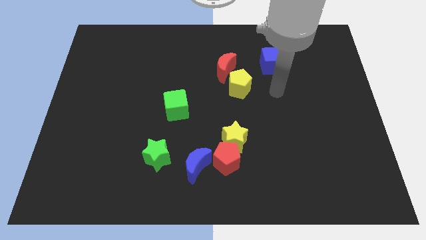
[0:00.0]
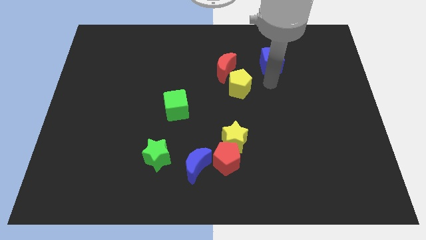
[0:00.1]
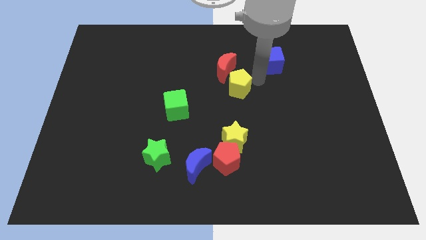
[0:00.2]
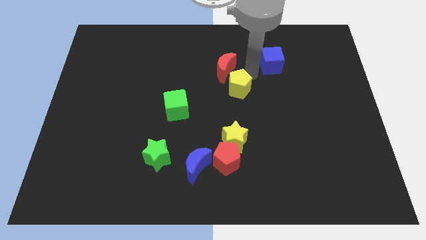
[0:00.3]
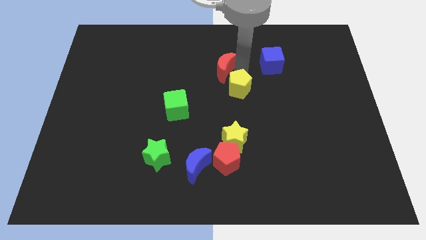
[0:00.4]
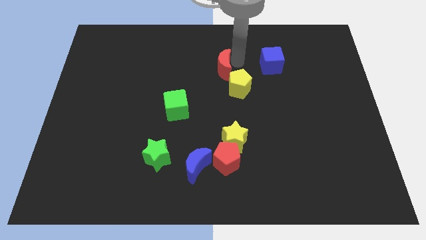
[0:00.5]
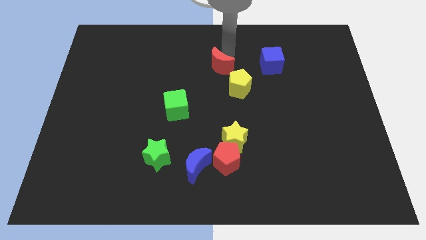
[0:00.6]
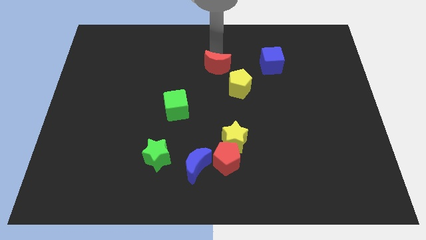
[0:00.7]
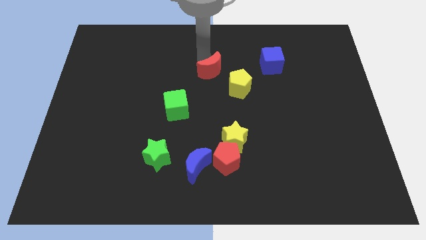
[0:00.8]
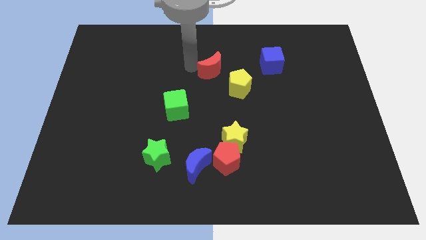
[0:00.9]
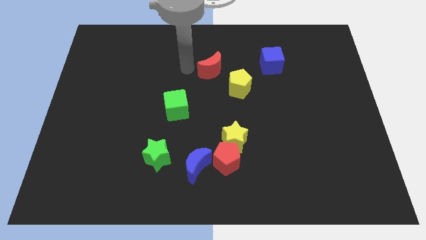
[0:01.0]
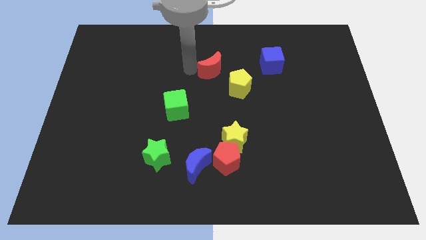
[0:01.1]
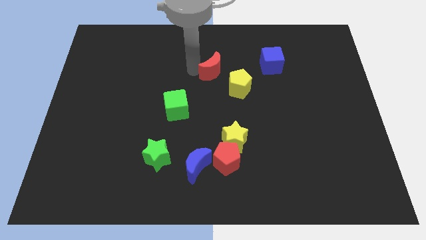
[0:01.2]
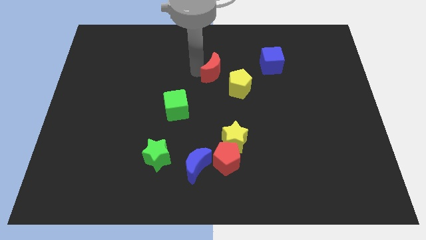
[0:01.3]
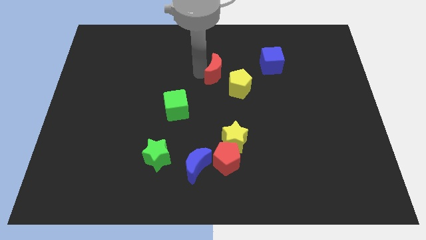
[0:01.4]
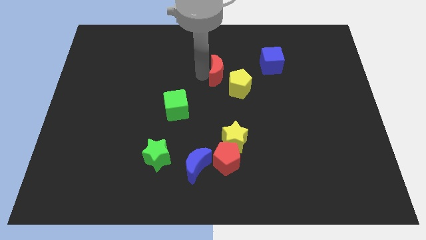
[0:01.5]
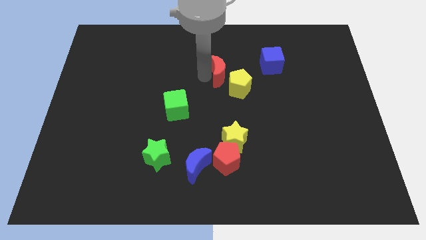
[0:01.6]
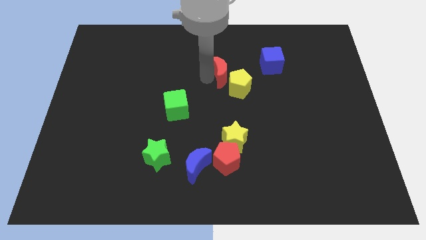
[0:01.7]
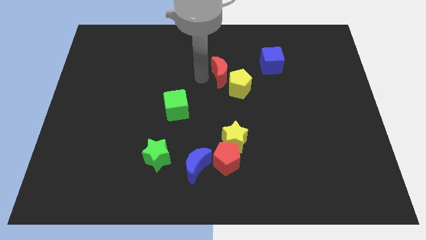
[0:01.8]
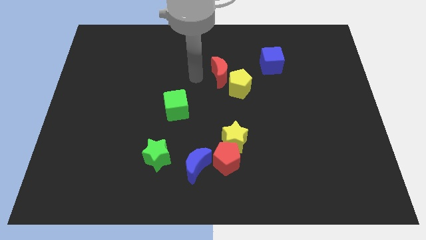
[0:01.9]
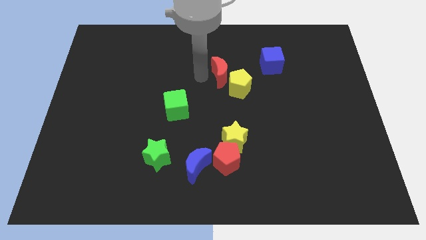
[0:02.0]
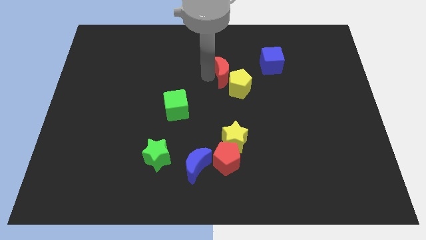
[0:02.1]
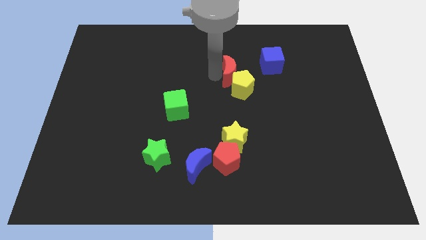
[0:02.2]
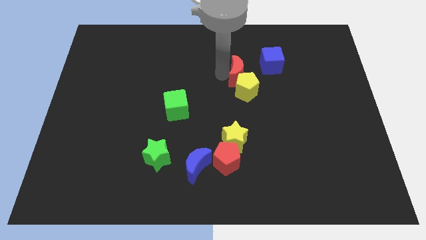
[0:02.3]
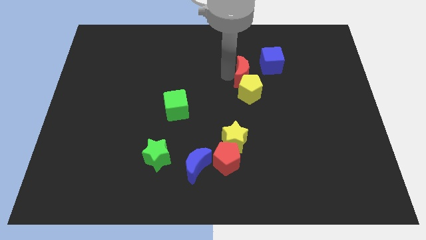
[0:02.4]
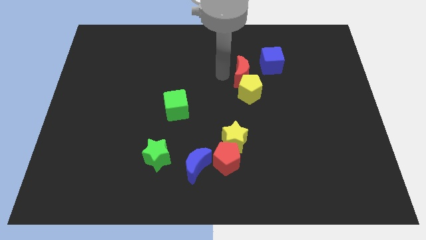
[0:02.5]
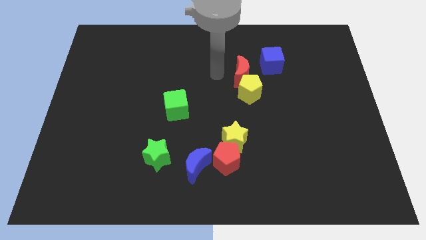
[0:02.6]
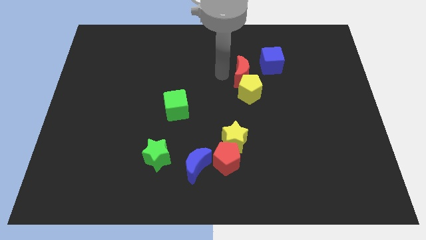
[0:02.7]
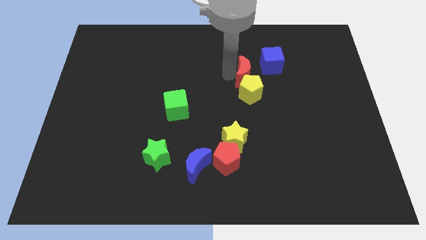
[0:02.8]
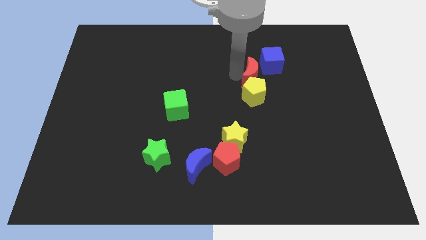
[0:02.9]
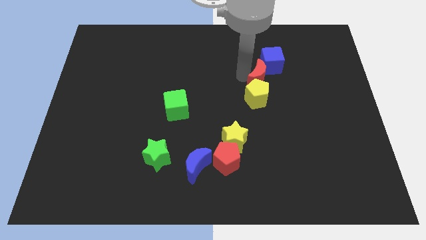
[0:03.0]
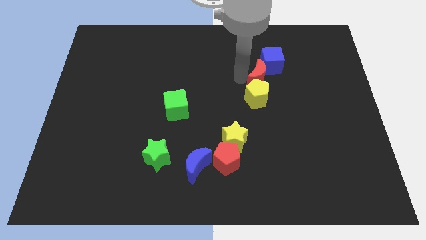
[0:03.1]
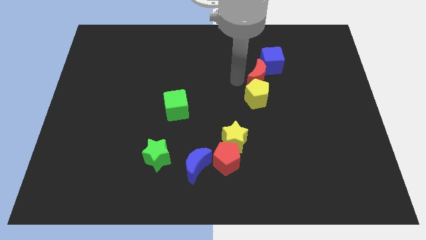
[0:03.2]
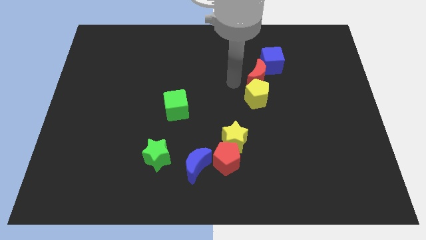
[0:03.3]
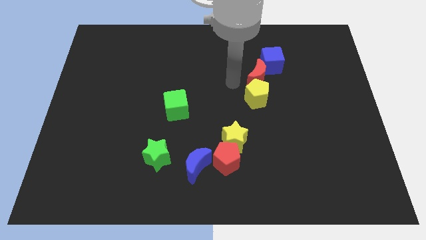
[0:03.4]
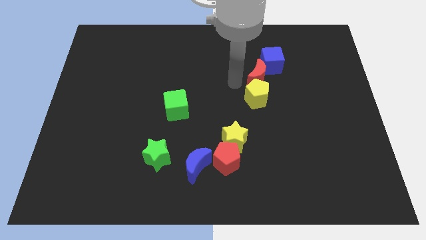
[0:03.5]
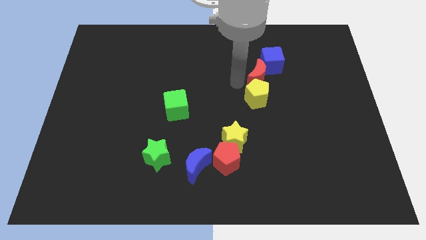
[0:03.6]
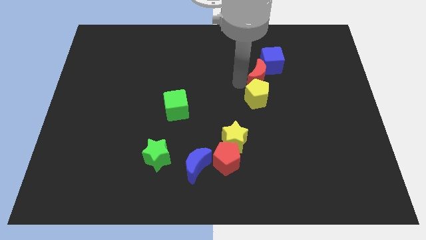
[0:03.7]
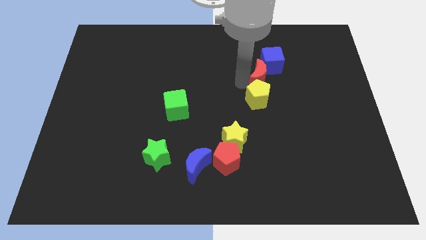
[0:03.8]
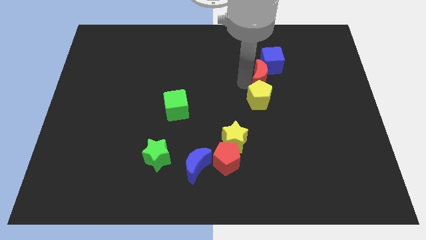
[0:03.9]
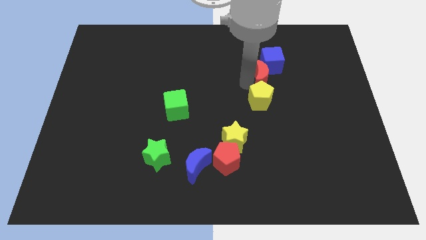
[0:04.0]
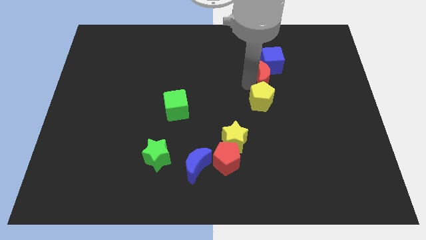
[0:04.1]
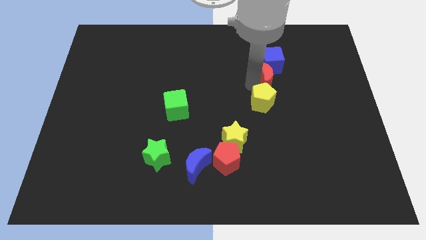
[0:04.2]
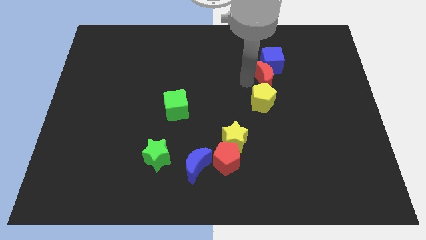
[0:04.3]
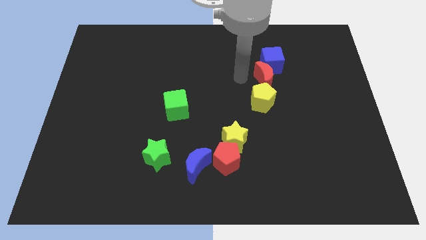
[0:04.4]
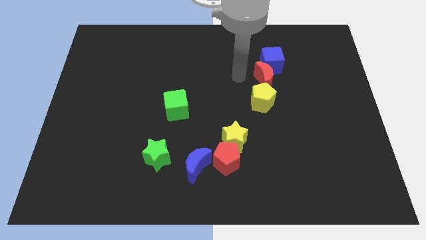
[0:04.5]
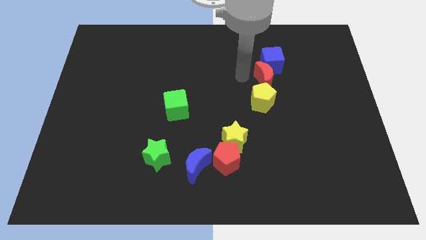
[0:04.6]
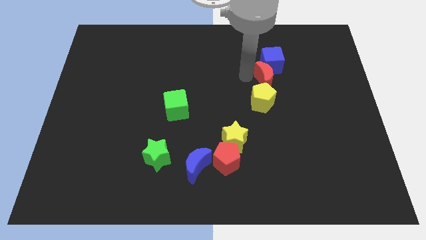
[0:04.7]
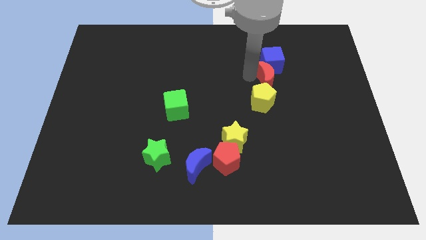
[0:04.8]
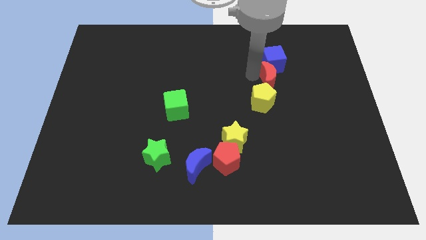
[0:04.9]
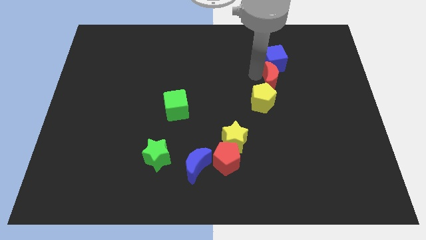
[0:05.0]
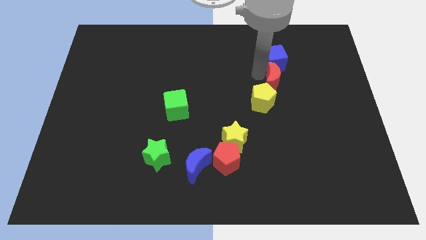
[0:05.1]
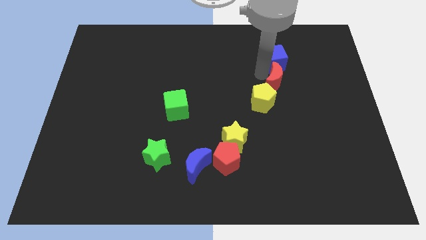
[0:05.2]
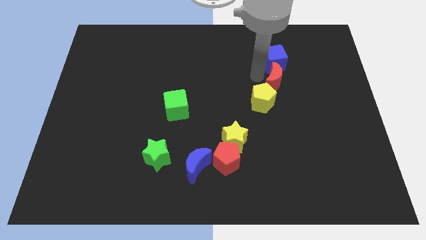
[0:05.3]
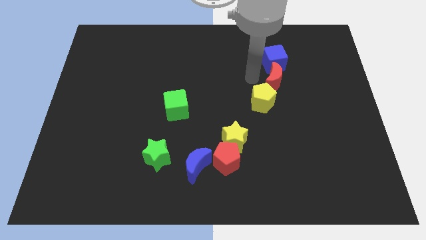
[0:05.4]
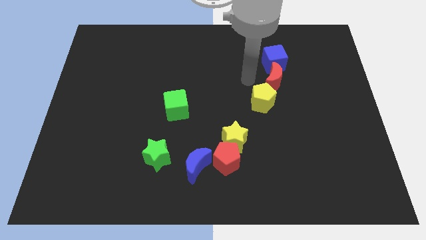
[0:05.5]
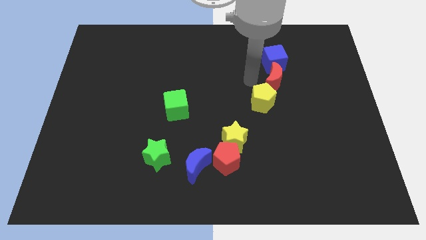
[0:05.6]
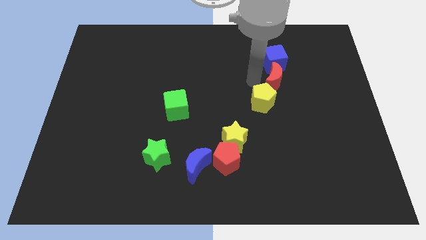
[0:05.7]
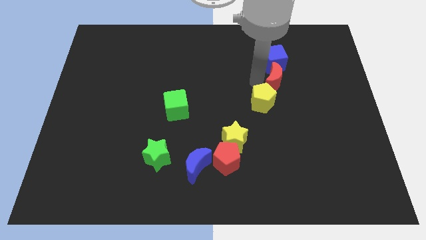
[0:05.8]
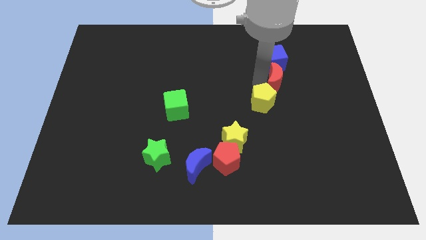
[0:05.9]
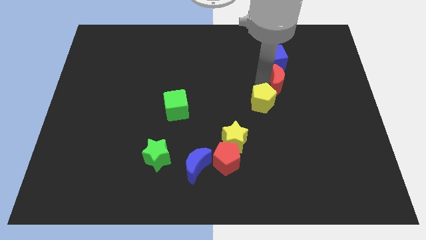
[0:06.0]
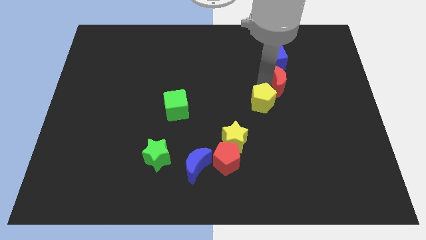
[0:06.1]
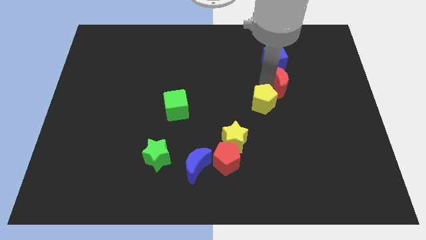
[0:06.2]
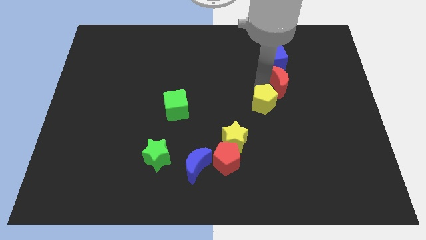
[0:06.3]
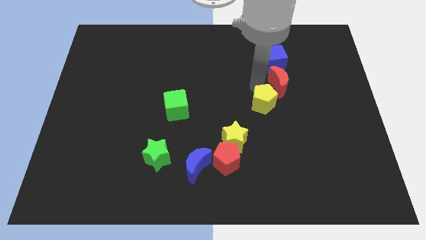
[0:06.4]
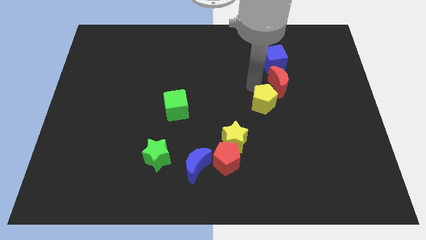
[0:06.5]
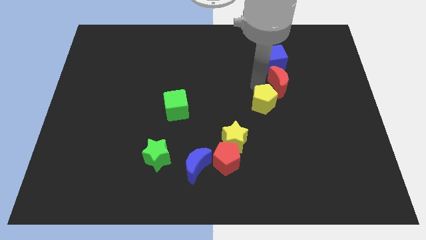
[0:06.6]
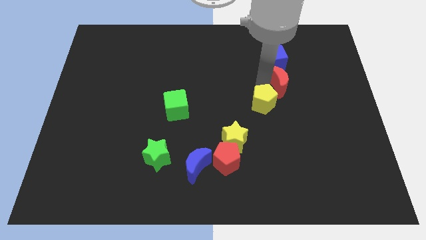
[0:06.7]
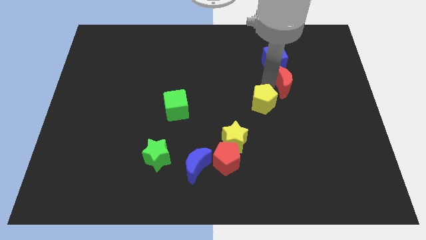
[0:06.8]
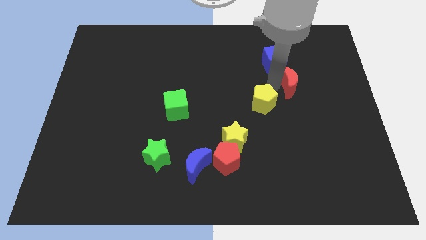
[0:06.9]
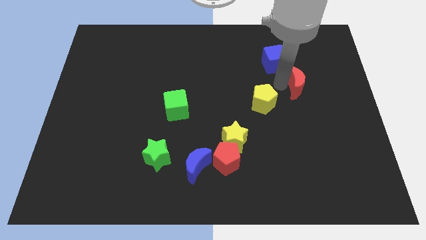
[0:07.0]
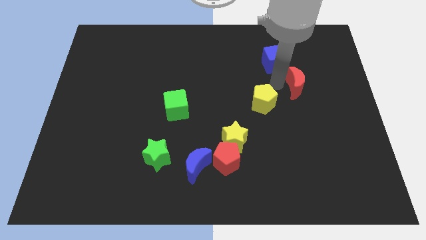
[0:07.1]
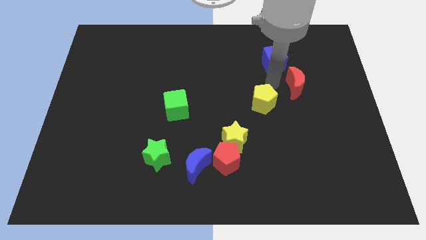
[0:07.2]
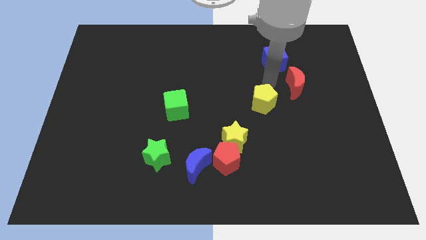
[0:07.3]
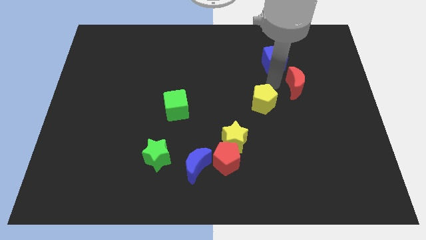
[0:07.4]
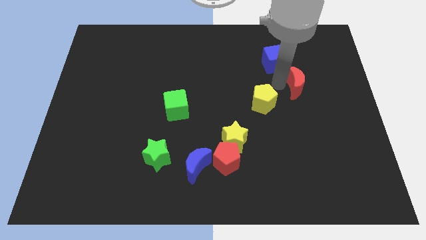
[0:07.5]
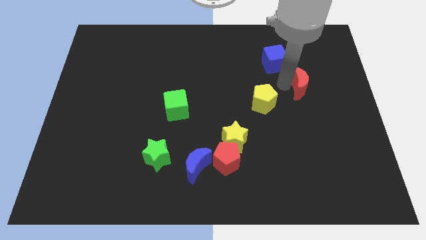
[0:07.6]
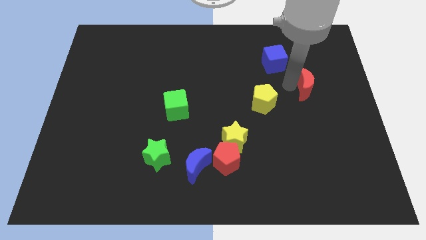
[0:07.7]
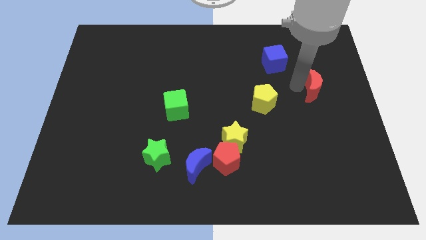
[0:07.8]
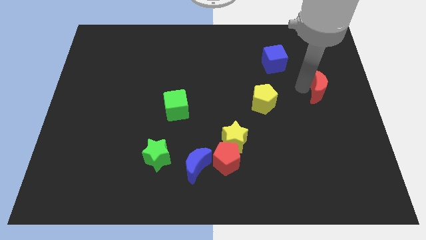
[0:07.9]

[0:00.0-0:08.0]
put the red moon to the center right
